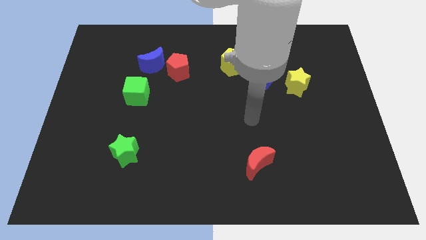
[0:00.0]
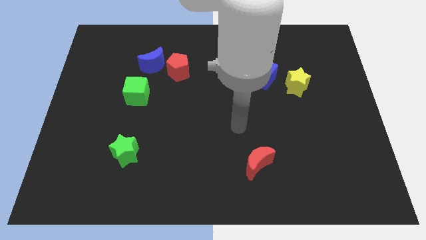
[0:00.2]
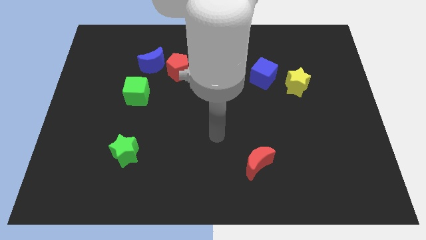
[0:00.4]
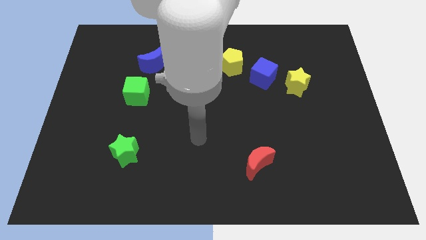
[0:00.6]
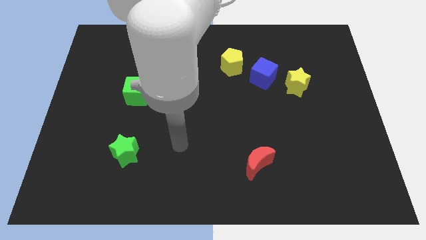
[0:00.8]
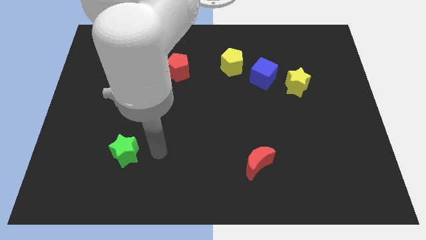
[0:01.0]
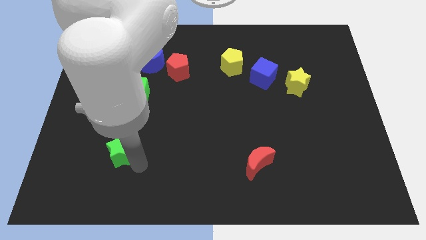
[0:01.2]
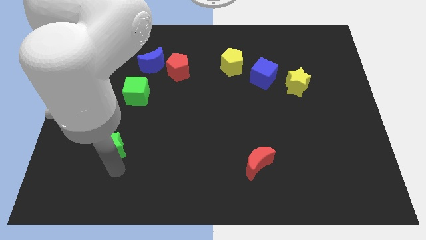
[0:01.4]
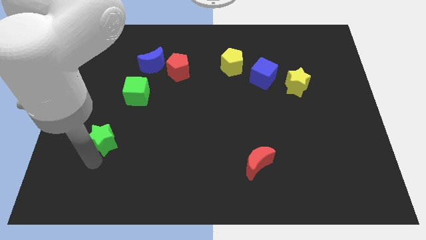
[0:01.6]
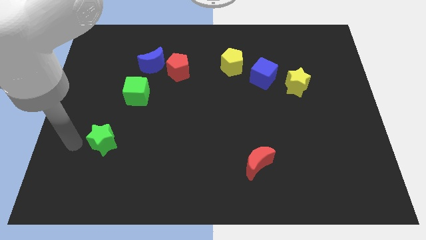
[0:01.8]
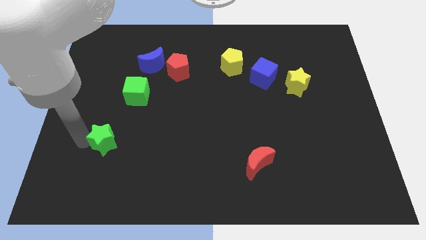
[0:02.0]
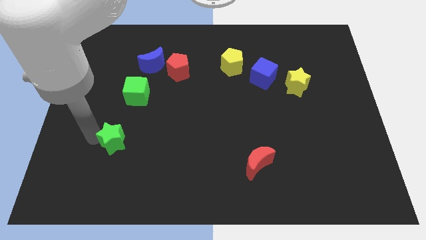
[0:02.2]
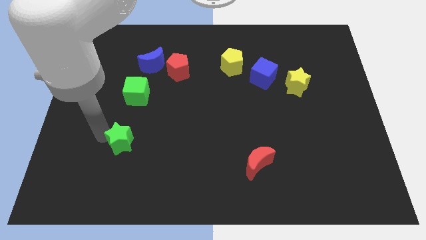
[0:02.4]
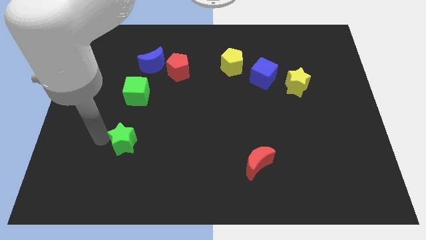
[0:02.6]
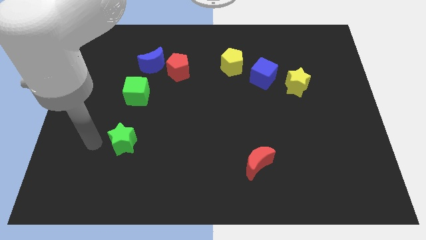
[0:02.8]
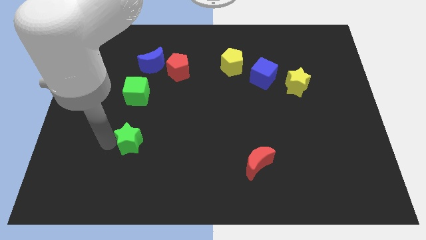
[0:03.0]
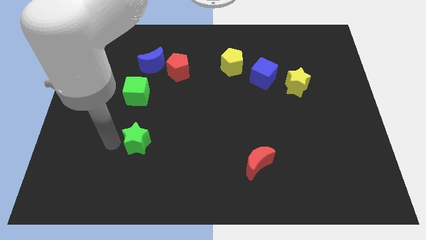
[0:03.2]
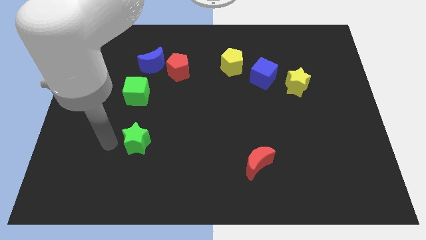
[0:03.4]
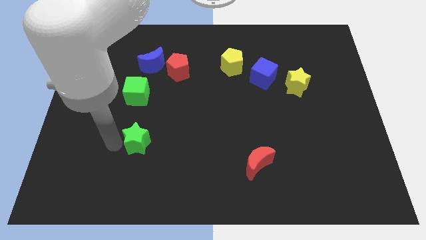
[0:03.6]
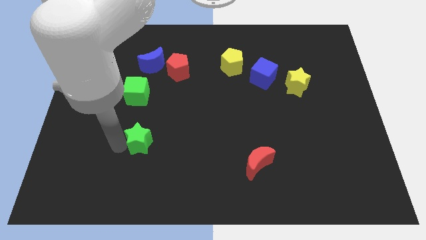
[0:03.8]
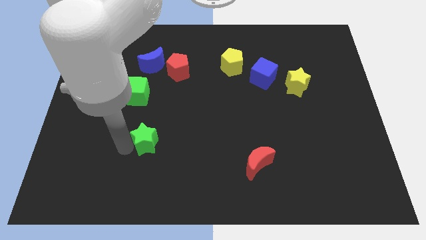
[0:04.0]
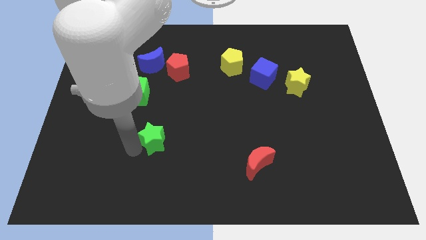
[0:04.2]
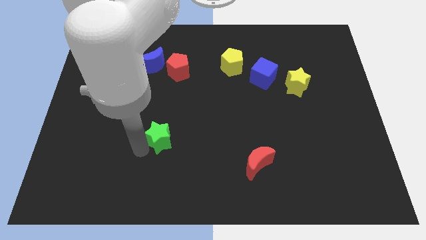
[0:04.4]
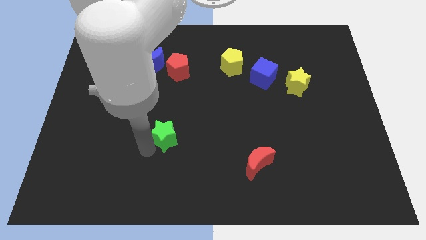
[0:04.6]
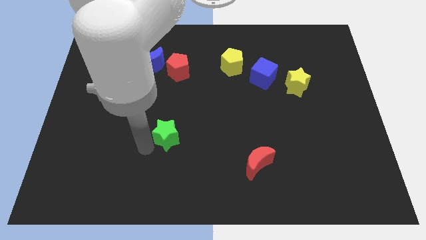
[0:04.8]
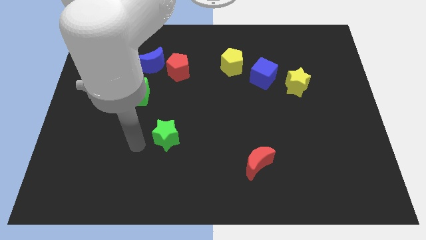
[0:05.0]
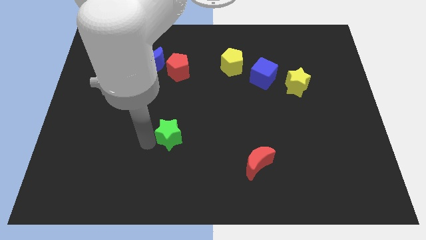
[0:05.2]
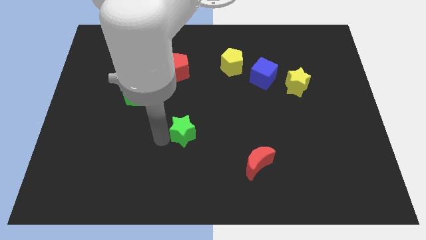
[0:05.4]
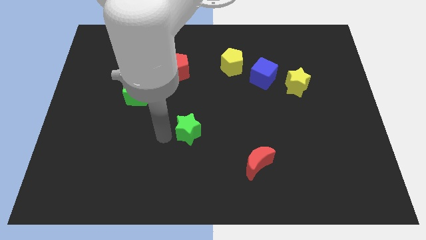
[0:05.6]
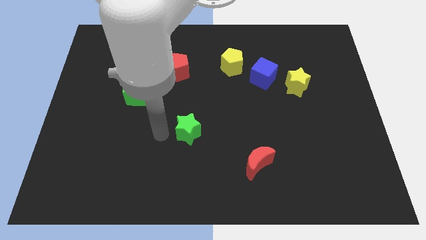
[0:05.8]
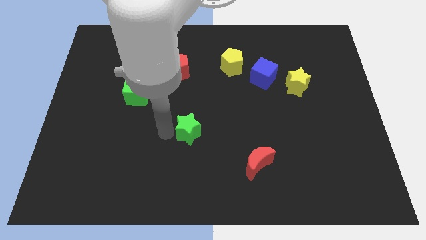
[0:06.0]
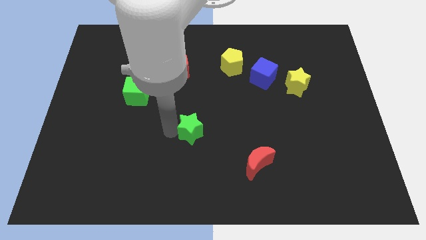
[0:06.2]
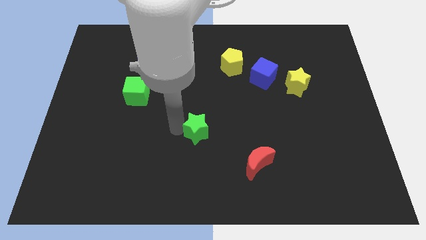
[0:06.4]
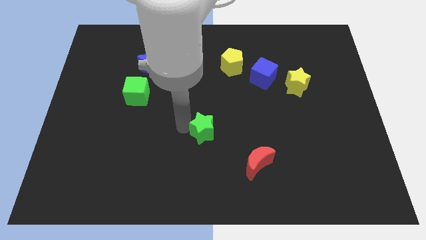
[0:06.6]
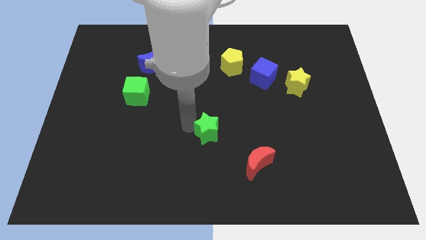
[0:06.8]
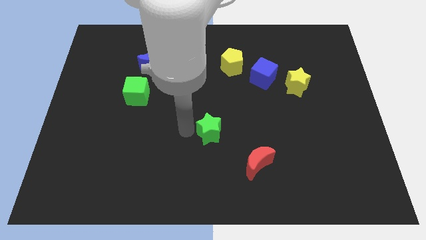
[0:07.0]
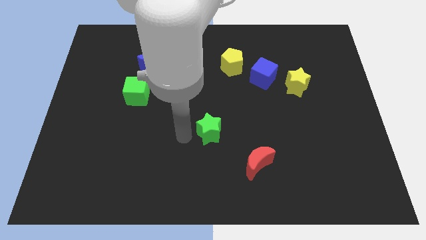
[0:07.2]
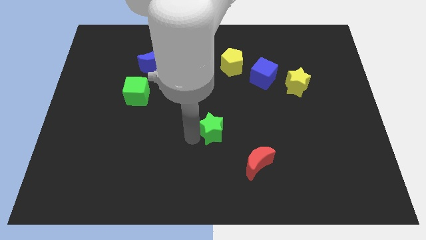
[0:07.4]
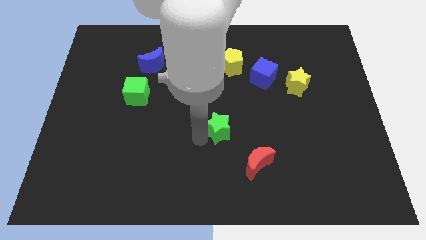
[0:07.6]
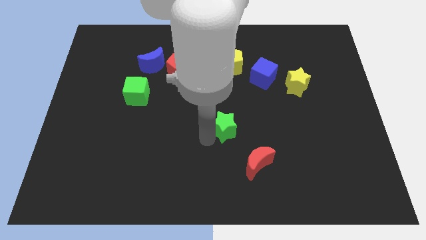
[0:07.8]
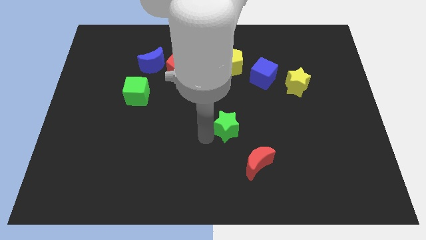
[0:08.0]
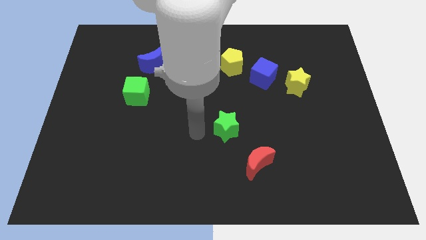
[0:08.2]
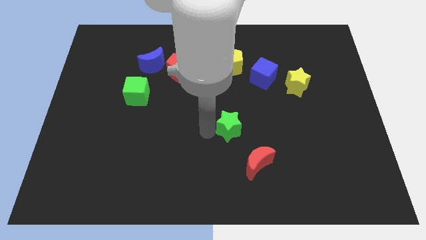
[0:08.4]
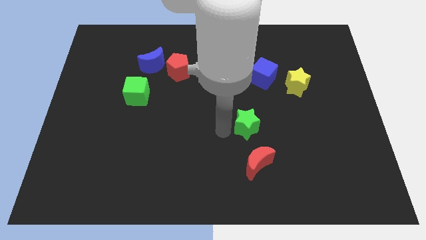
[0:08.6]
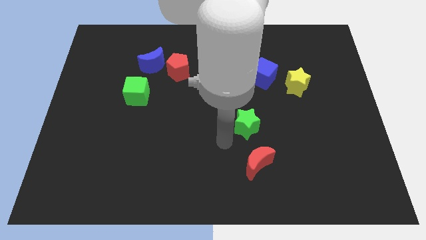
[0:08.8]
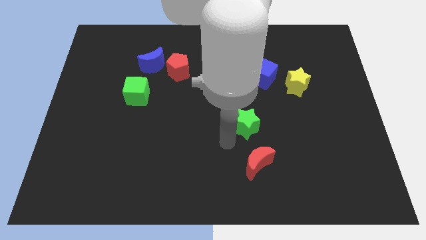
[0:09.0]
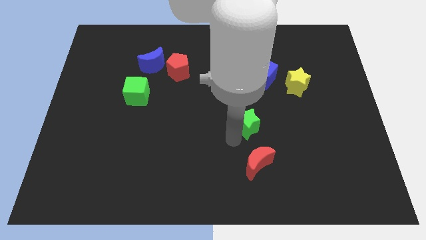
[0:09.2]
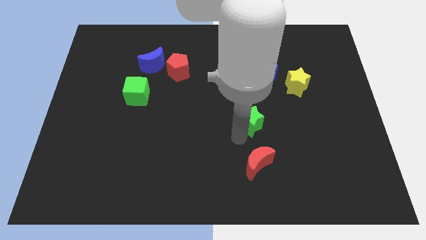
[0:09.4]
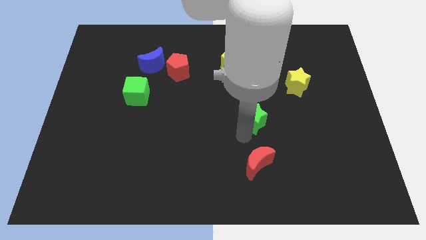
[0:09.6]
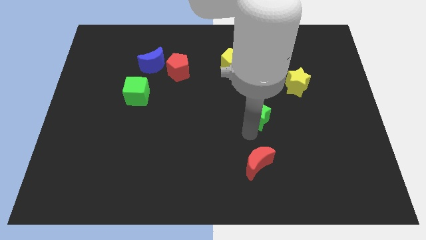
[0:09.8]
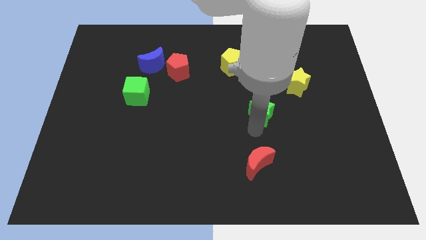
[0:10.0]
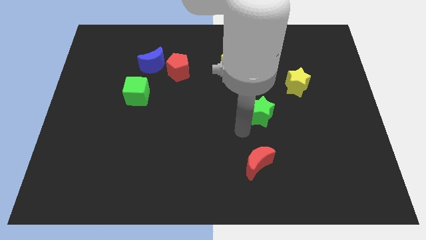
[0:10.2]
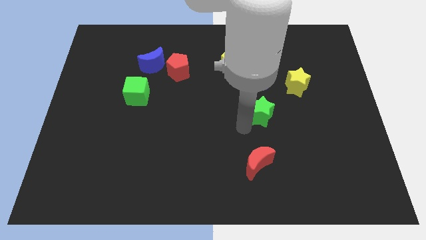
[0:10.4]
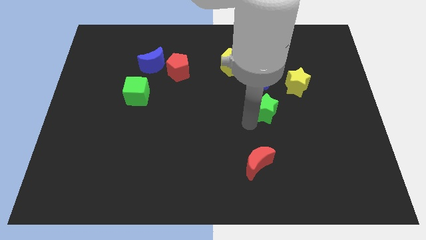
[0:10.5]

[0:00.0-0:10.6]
put the green star diagonally down and to the left of the yellow star

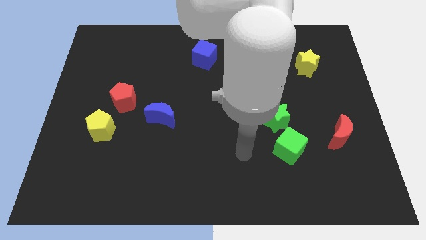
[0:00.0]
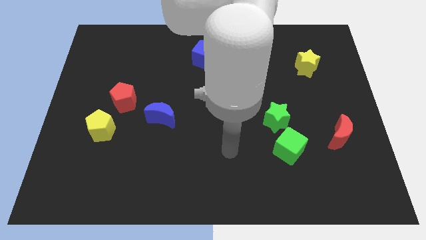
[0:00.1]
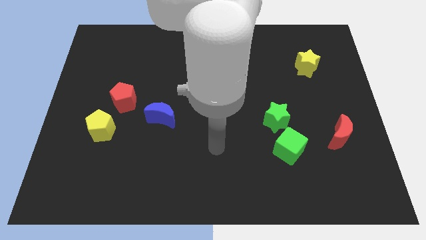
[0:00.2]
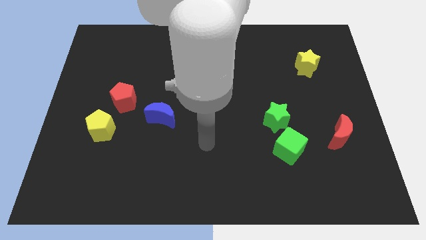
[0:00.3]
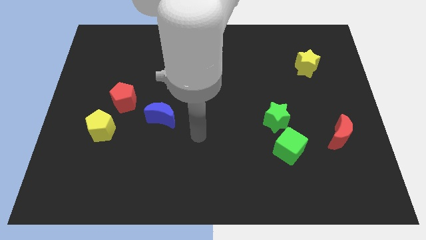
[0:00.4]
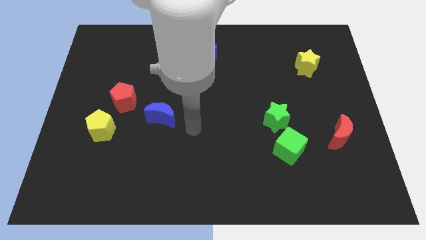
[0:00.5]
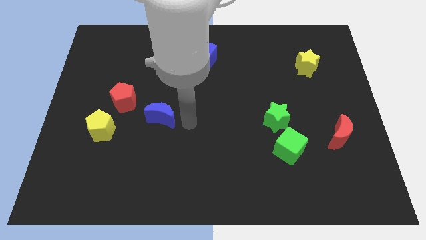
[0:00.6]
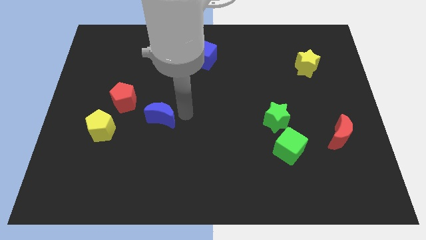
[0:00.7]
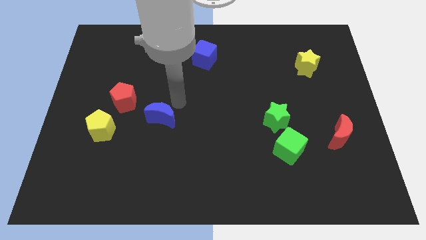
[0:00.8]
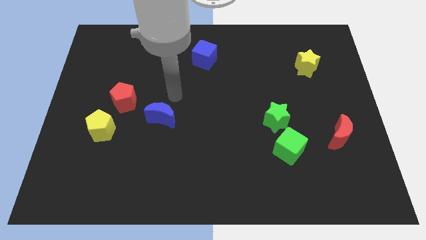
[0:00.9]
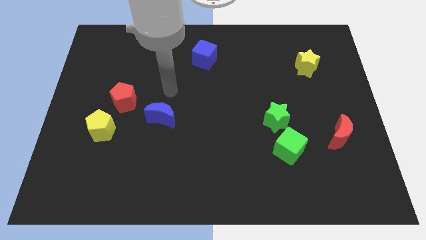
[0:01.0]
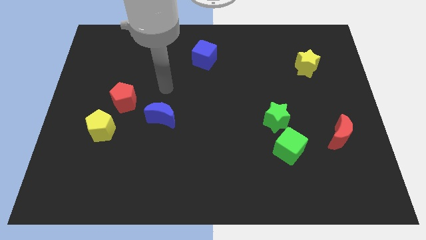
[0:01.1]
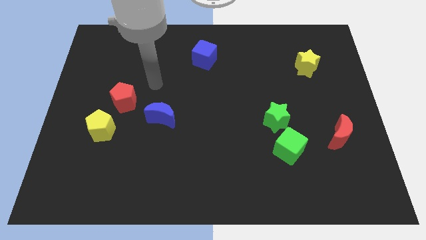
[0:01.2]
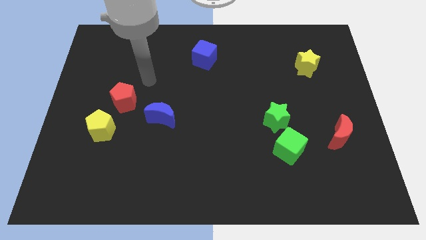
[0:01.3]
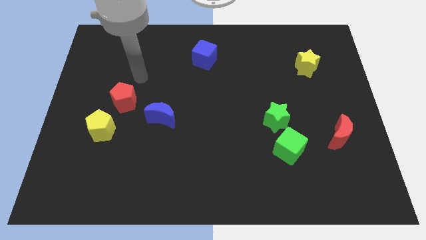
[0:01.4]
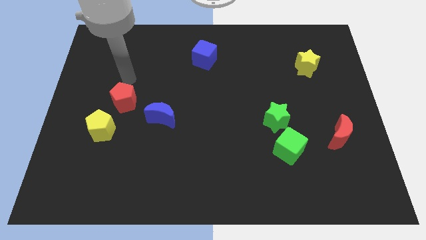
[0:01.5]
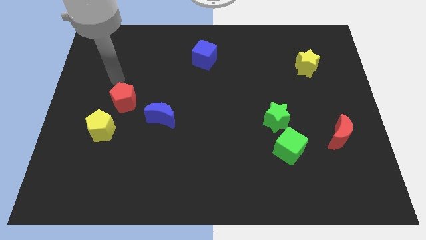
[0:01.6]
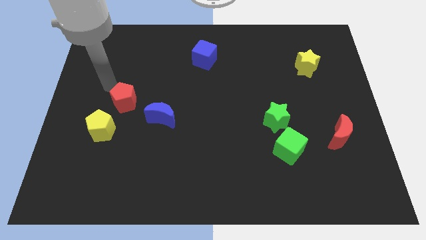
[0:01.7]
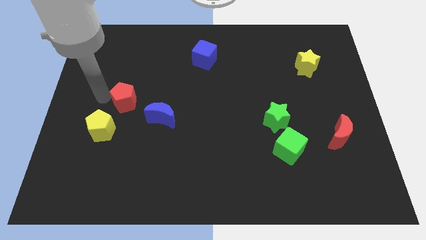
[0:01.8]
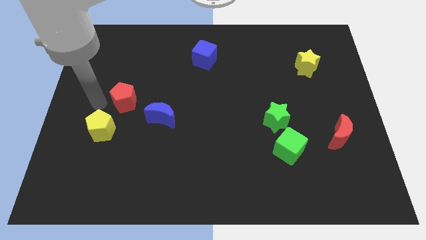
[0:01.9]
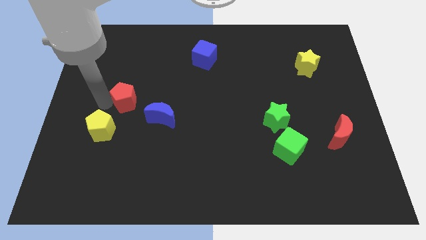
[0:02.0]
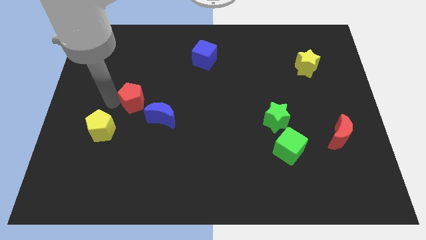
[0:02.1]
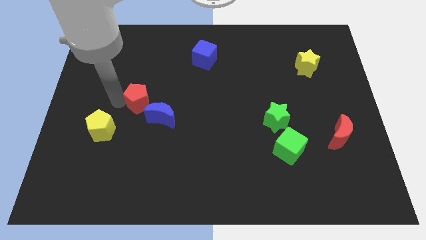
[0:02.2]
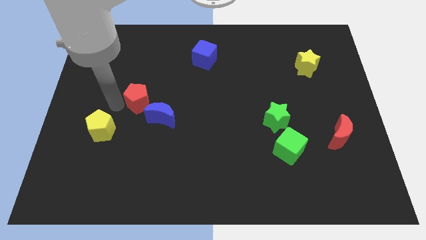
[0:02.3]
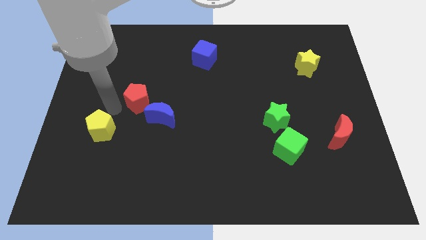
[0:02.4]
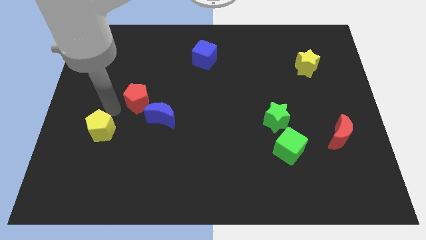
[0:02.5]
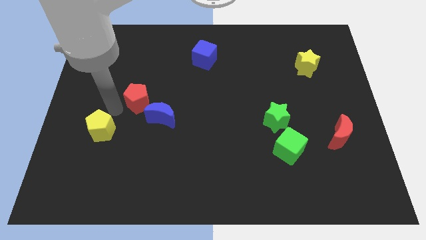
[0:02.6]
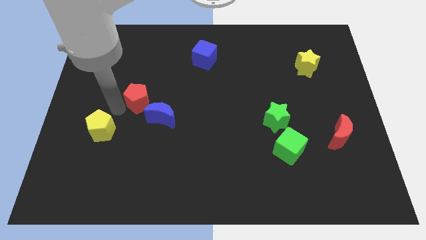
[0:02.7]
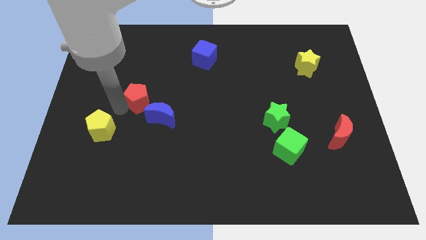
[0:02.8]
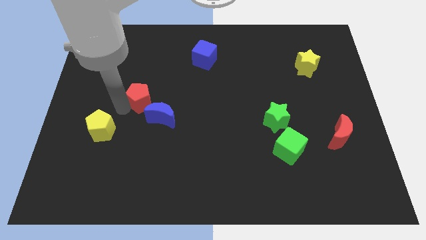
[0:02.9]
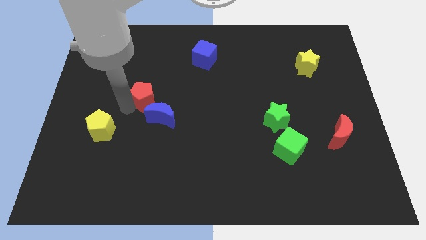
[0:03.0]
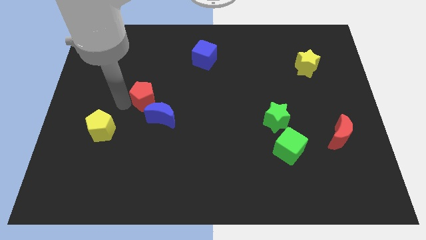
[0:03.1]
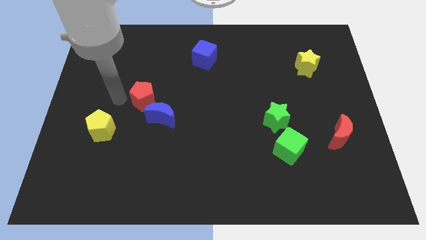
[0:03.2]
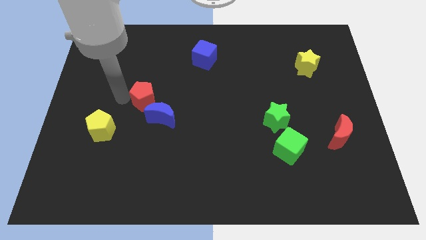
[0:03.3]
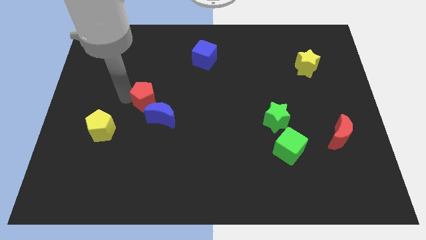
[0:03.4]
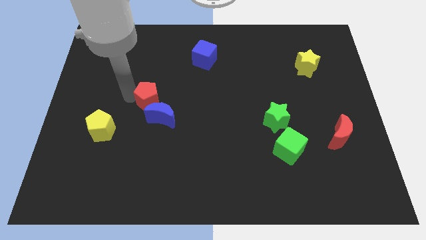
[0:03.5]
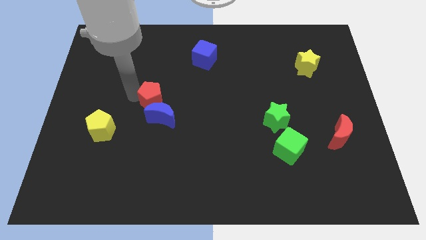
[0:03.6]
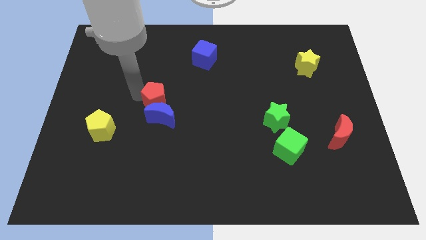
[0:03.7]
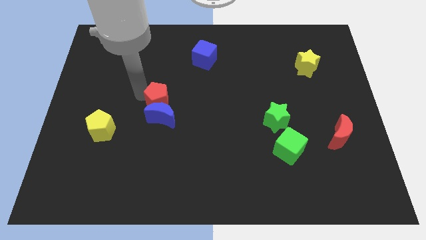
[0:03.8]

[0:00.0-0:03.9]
put the red pentagon to the top right side of the blue moon
